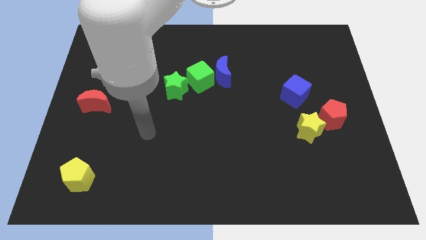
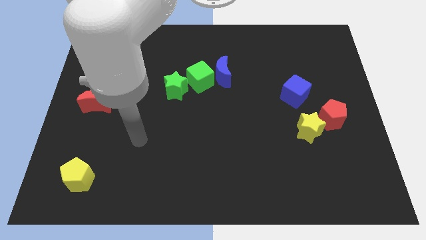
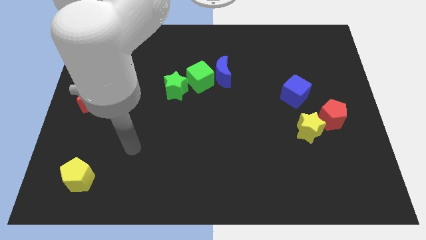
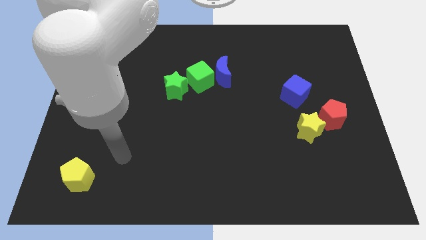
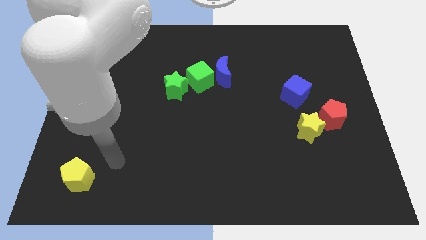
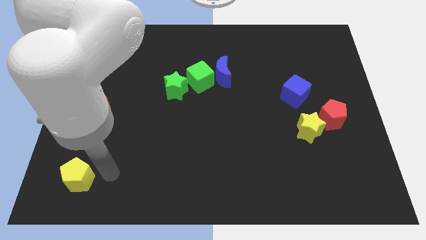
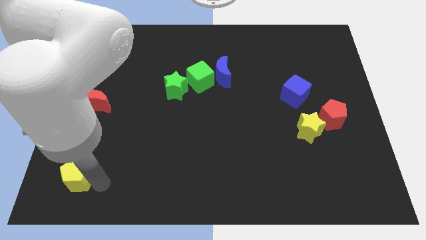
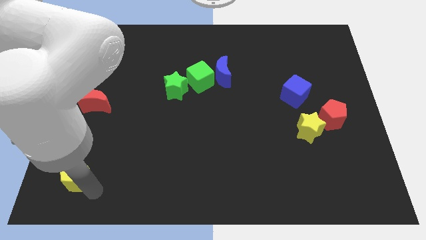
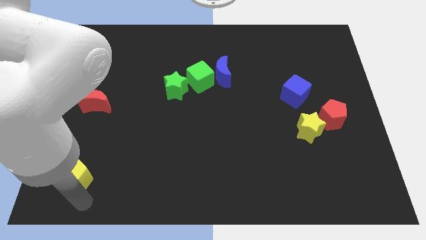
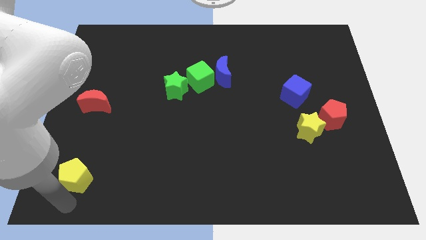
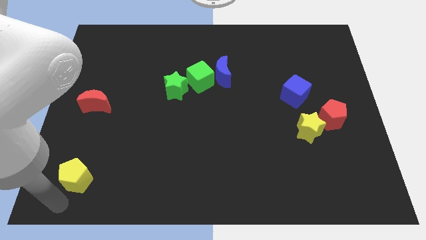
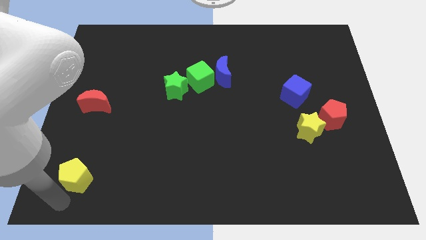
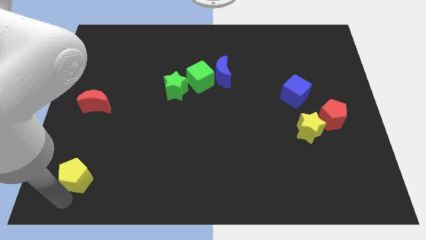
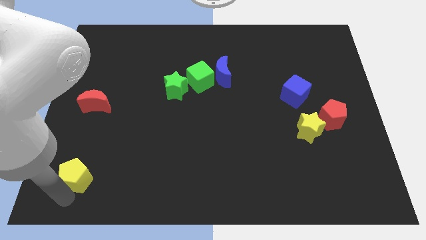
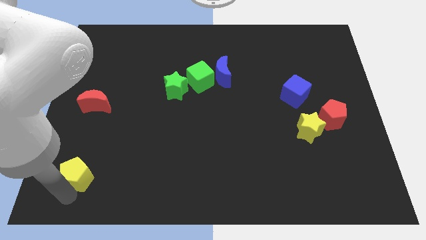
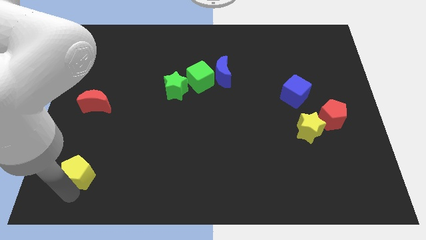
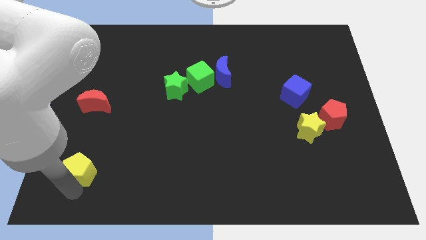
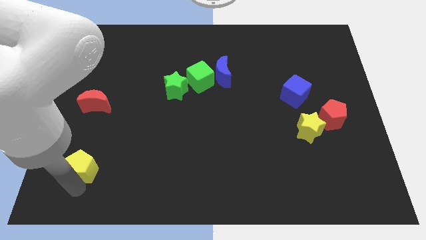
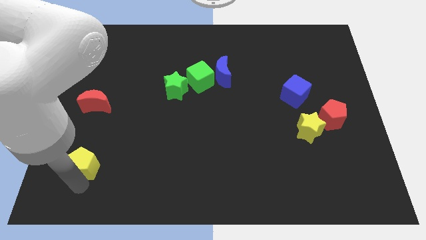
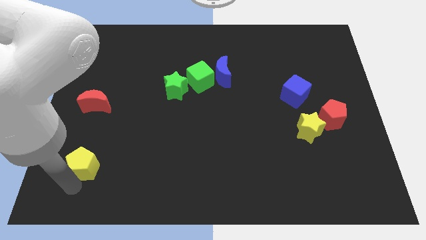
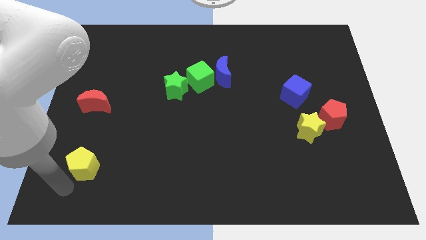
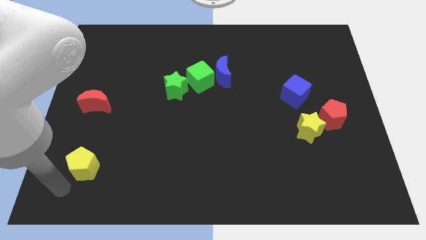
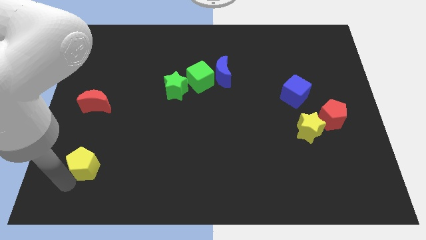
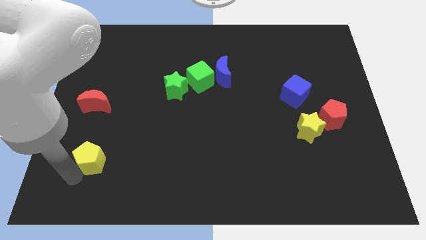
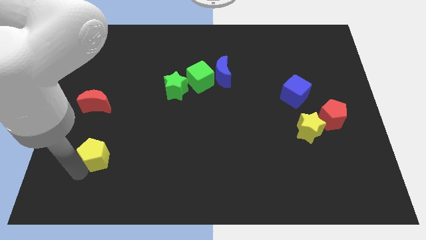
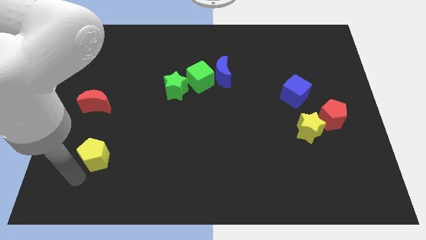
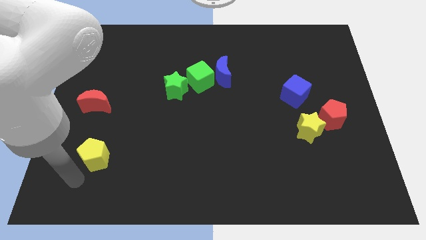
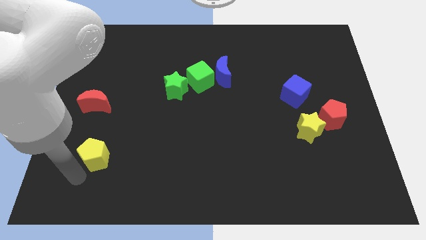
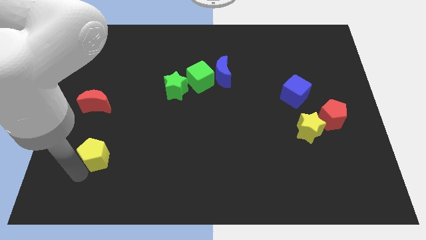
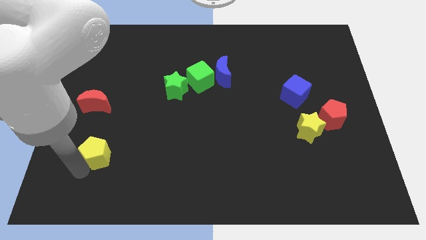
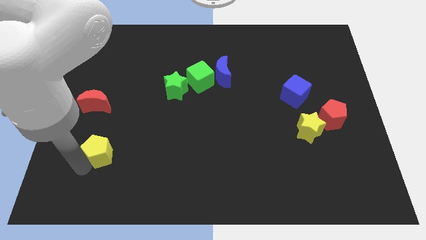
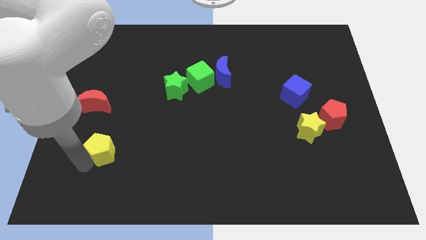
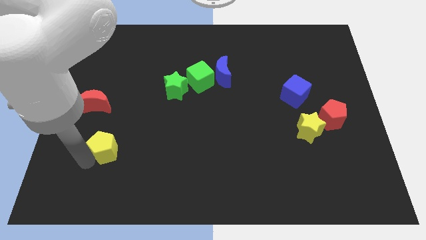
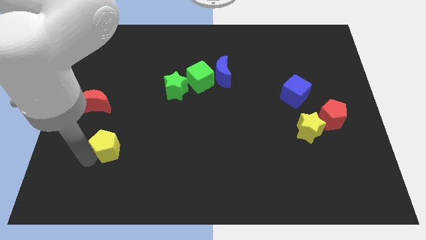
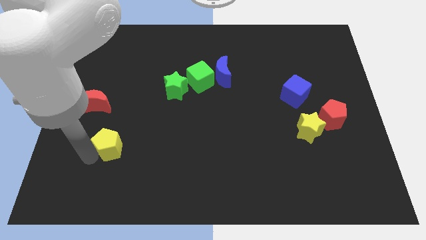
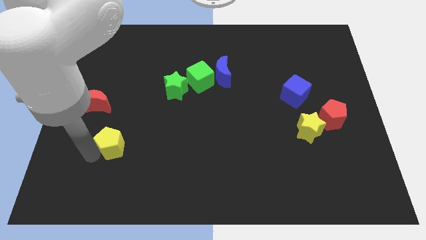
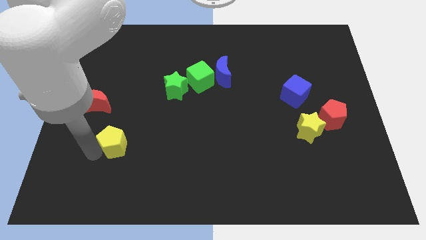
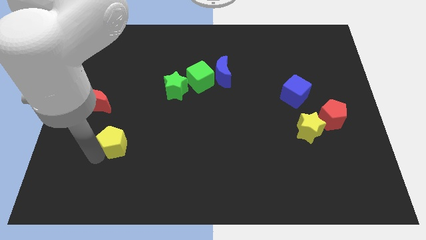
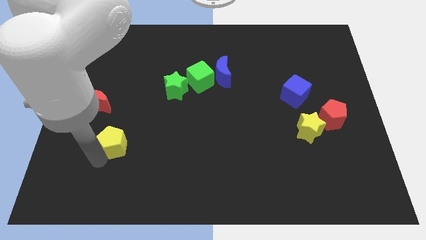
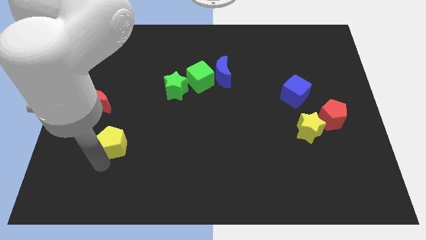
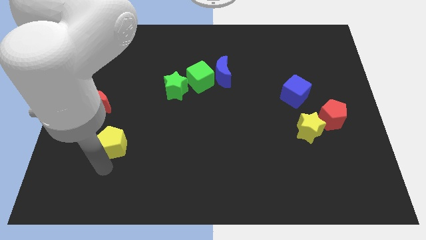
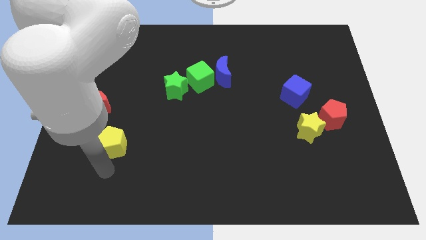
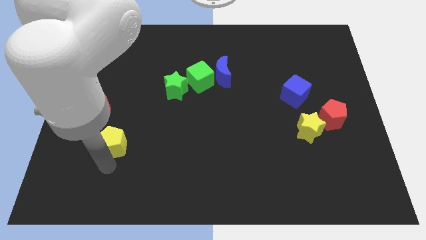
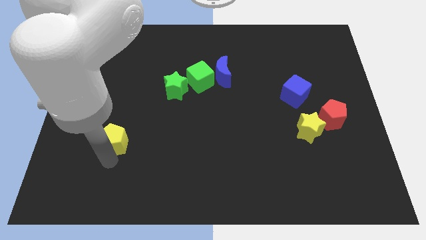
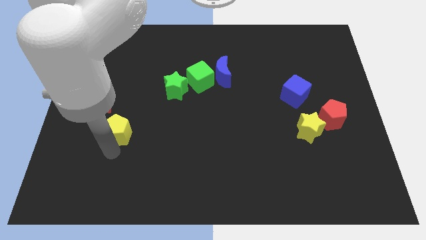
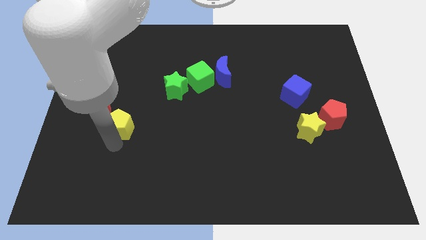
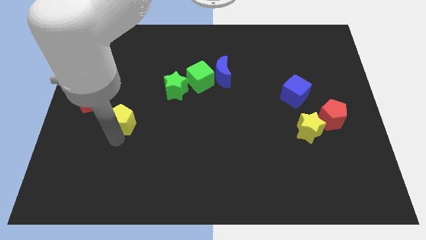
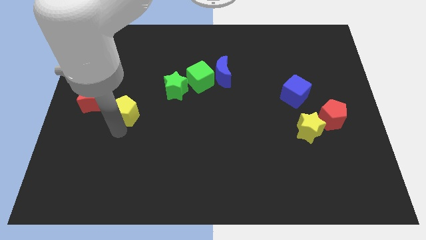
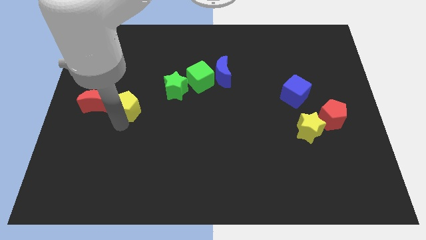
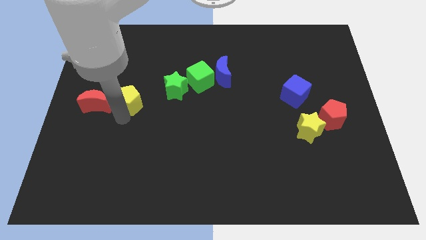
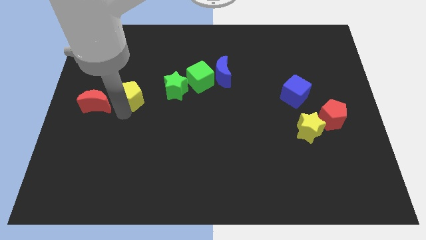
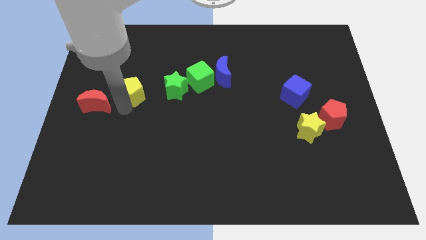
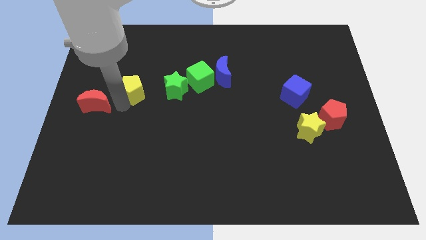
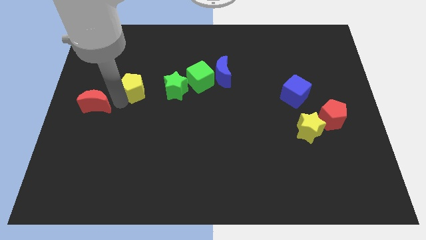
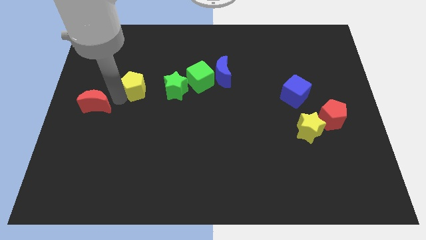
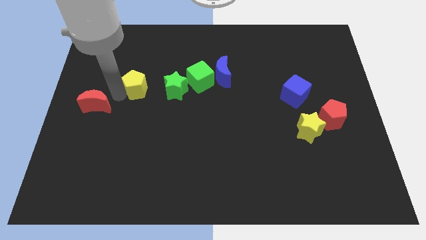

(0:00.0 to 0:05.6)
slide the yellow pentagon to the left side of the green cube

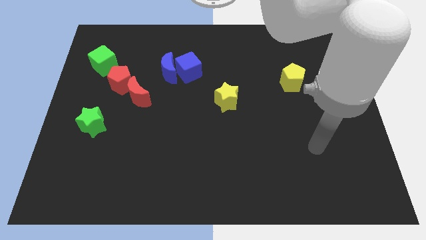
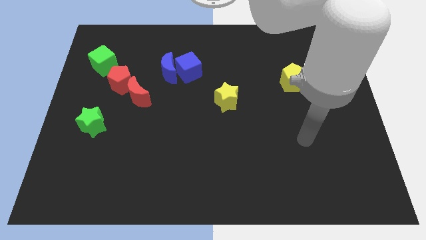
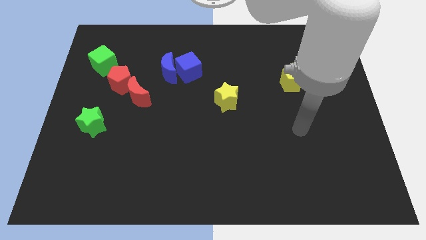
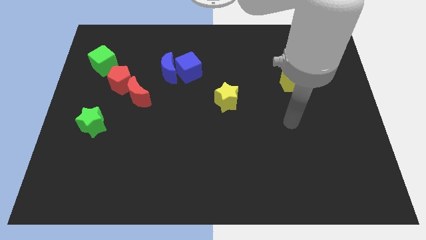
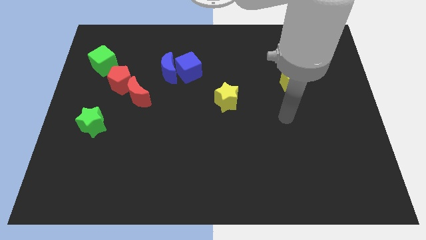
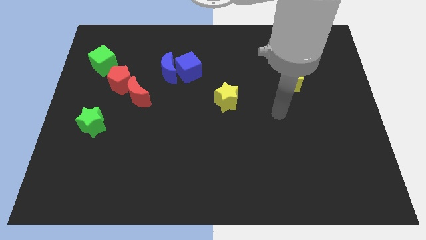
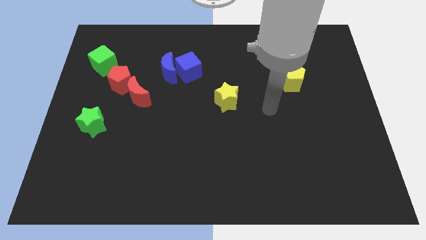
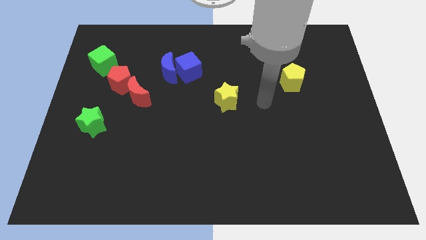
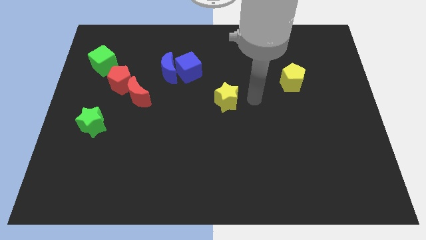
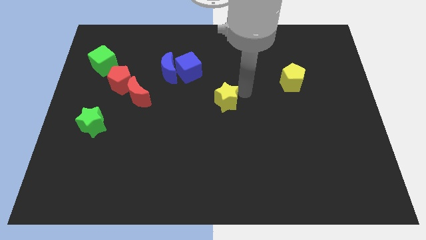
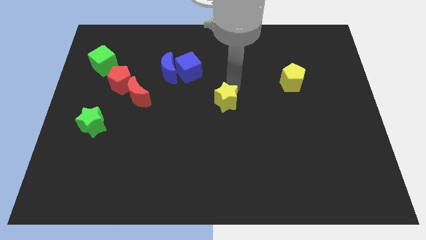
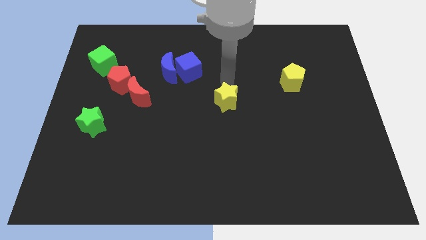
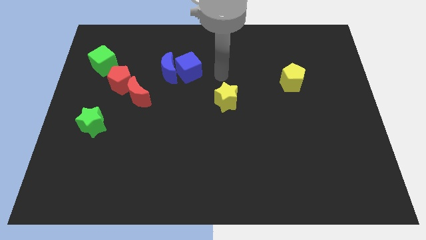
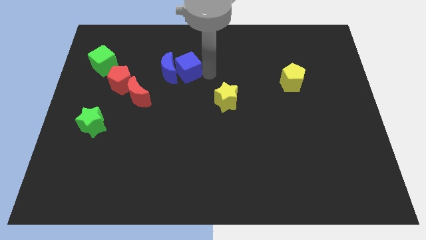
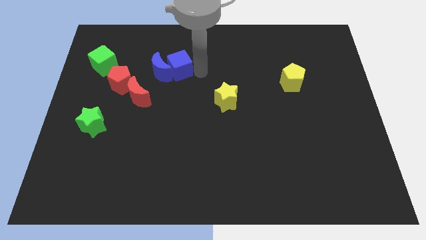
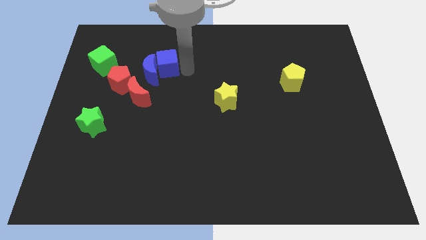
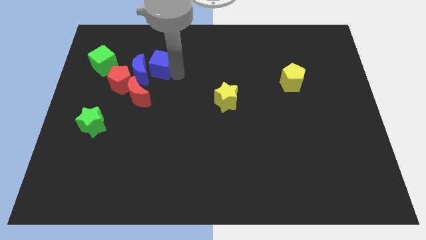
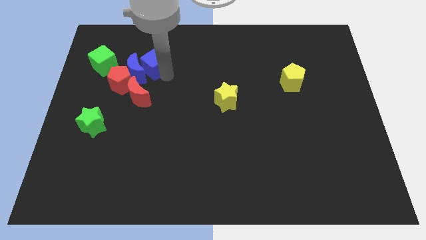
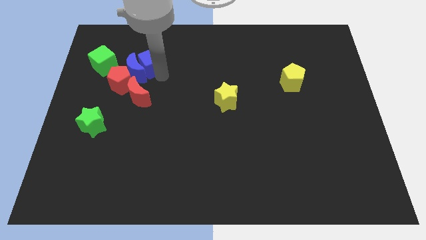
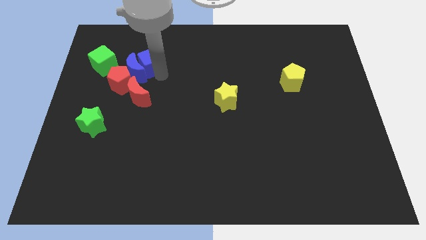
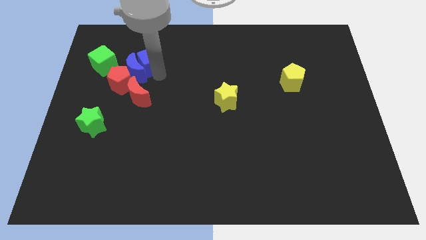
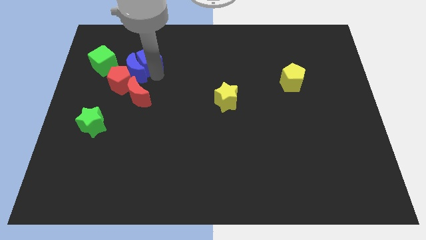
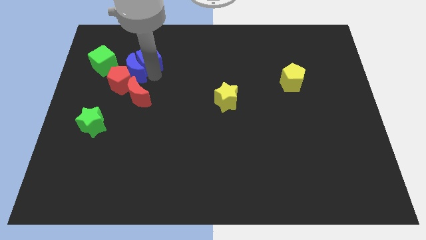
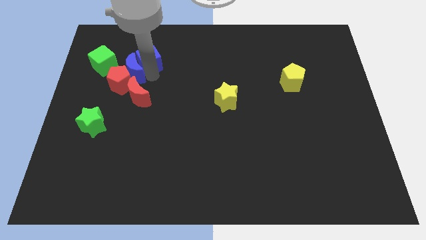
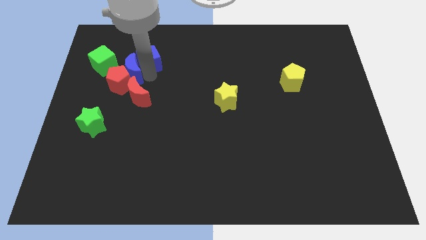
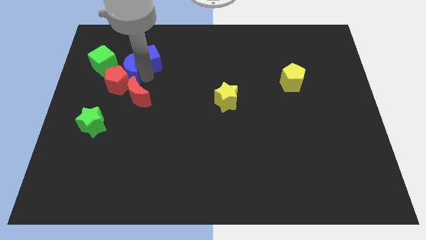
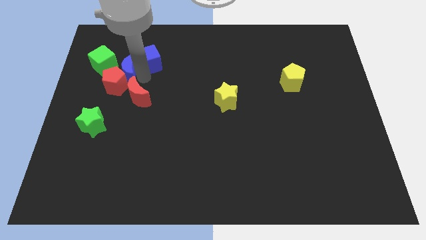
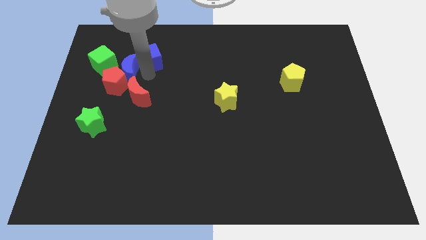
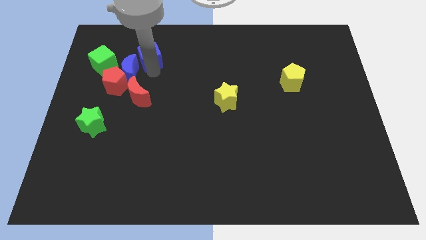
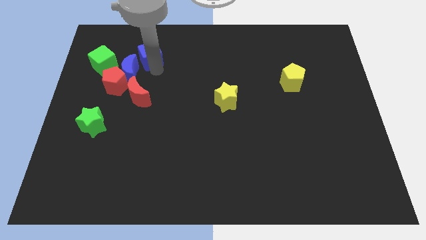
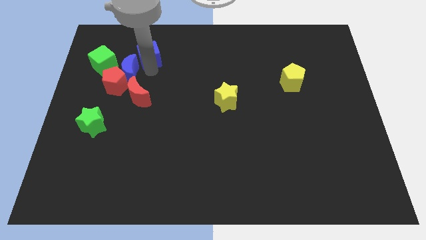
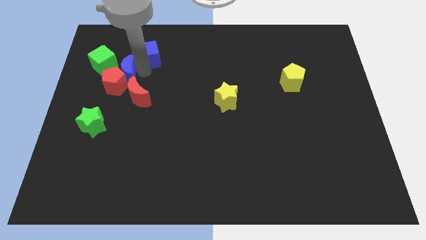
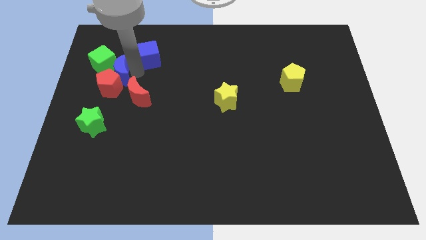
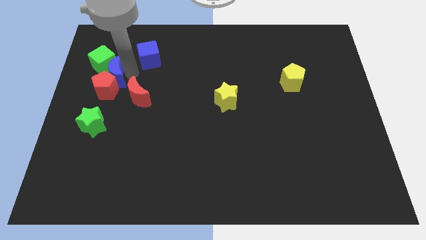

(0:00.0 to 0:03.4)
push the blue moon to the top side of the green star
